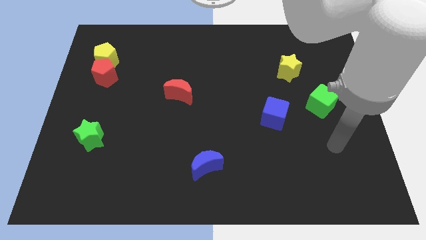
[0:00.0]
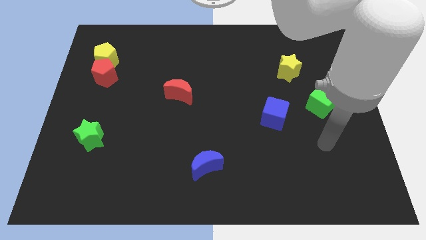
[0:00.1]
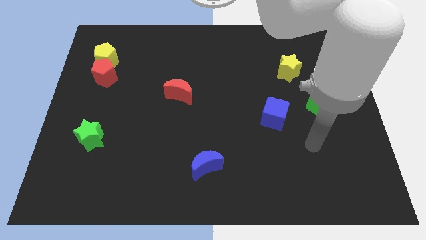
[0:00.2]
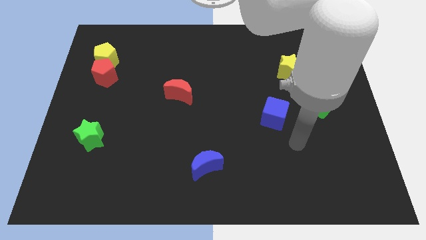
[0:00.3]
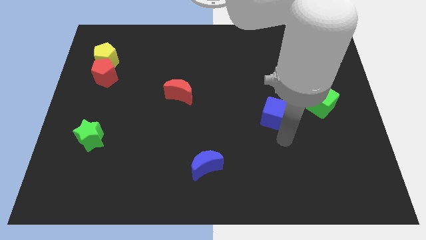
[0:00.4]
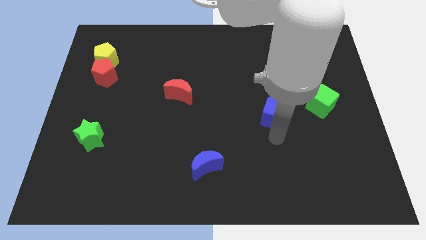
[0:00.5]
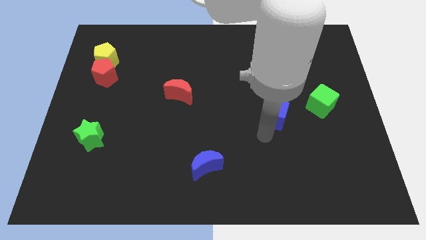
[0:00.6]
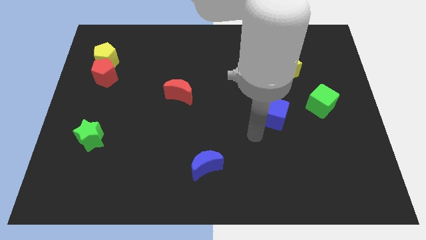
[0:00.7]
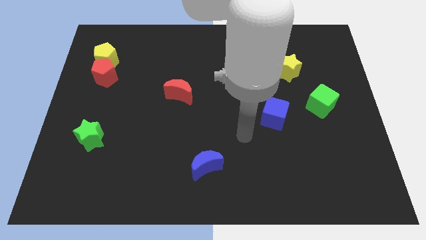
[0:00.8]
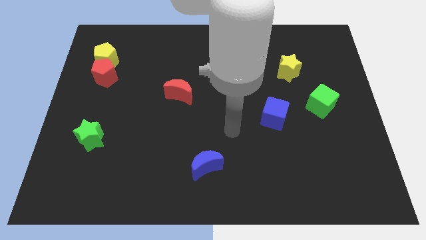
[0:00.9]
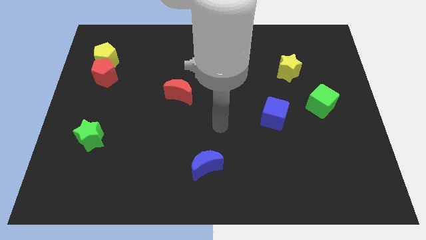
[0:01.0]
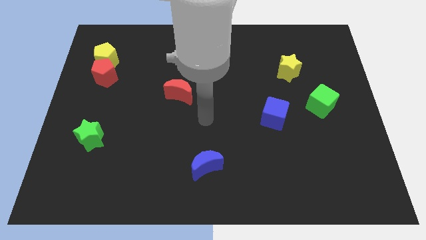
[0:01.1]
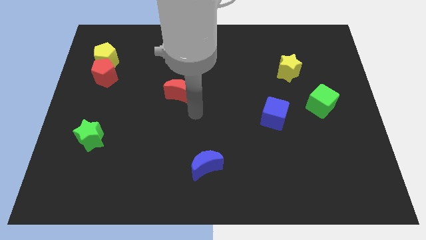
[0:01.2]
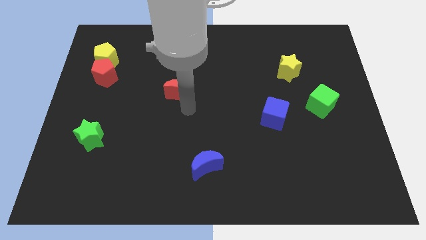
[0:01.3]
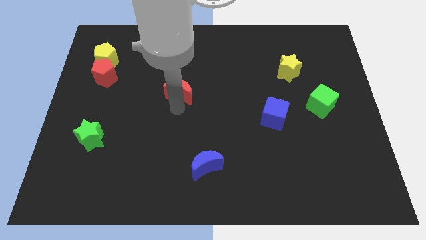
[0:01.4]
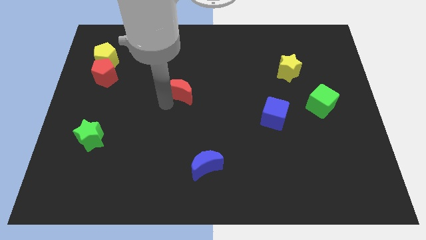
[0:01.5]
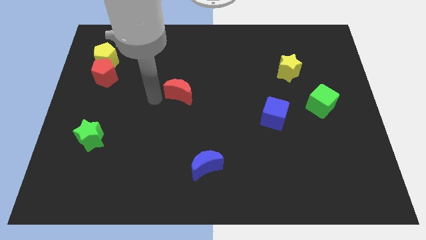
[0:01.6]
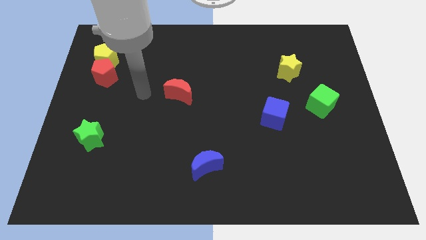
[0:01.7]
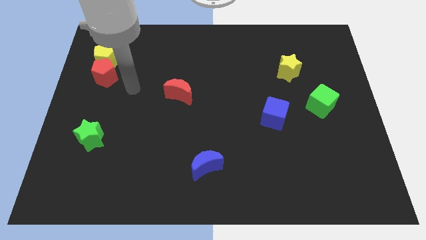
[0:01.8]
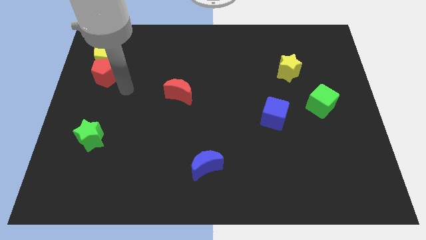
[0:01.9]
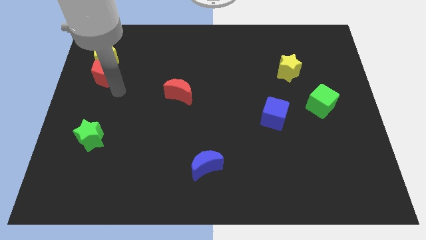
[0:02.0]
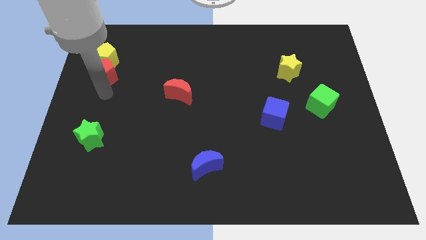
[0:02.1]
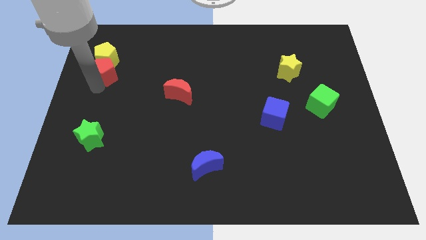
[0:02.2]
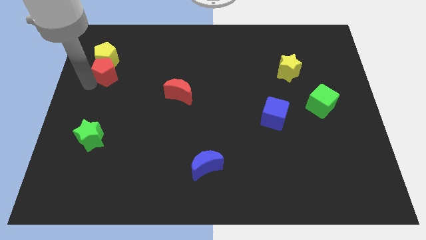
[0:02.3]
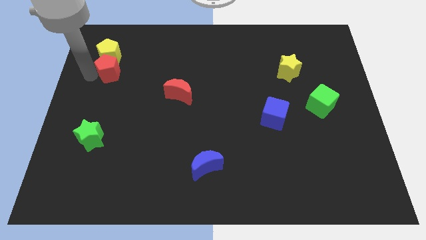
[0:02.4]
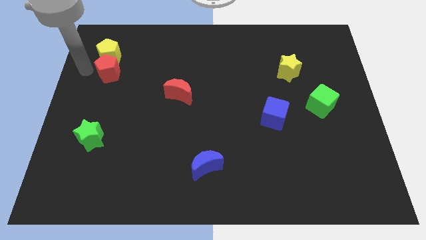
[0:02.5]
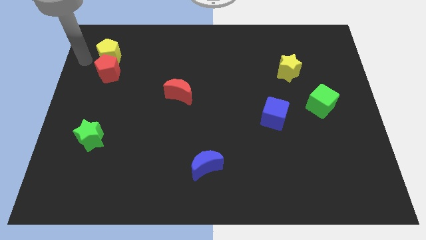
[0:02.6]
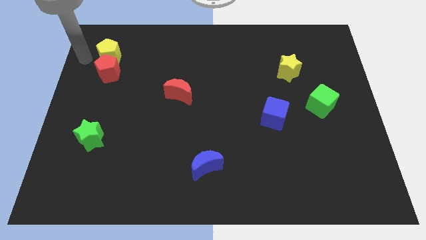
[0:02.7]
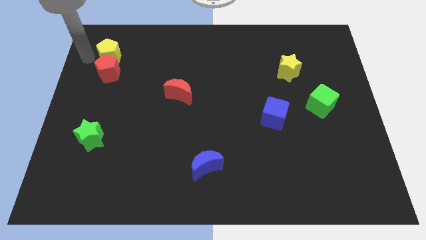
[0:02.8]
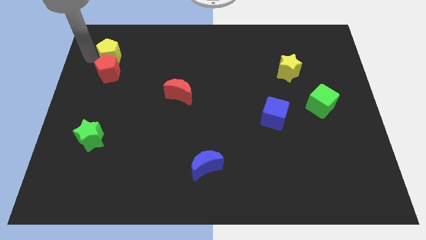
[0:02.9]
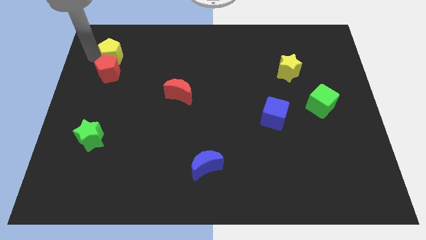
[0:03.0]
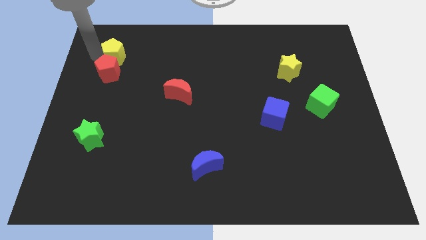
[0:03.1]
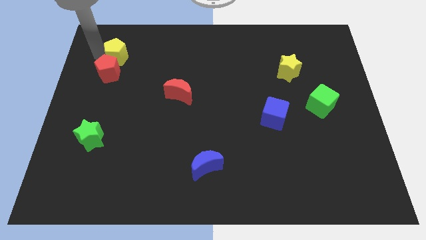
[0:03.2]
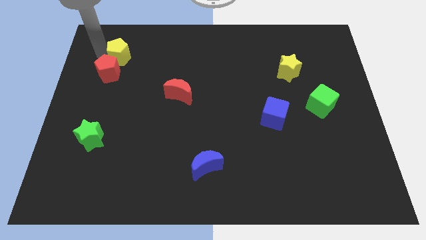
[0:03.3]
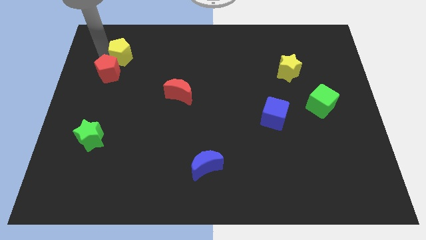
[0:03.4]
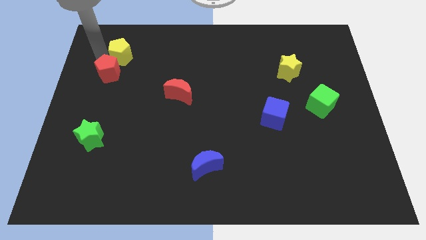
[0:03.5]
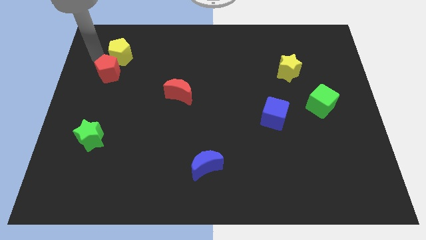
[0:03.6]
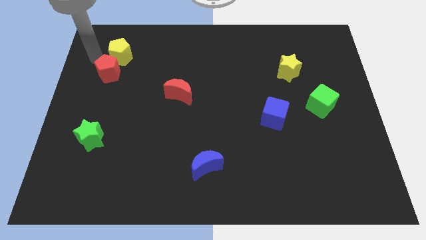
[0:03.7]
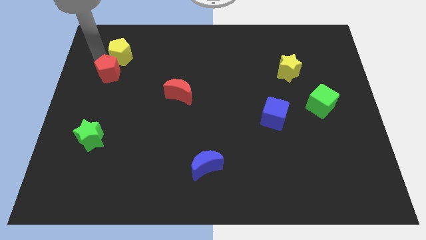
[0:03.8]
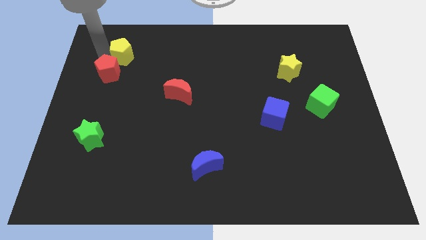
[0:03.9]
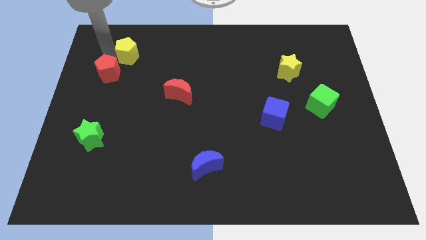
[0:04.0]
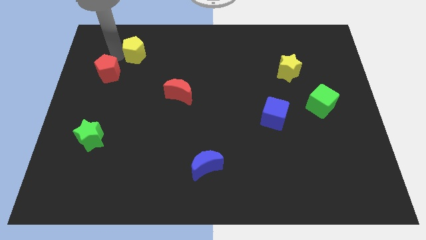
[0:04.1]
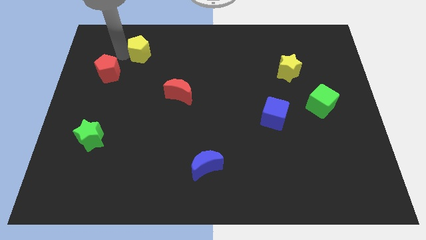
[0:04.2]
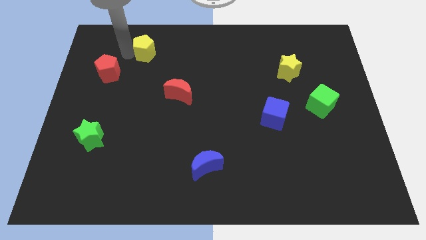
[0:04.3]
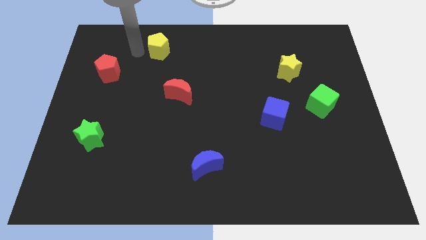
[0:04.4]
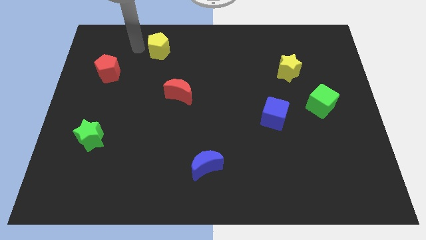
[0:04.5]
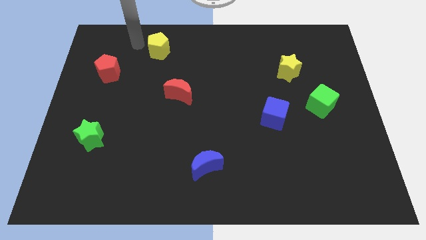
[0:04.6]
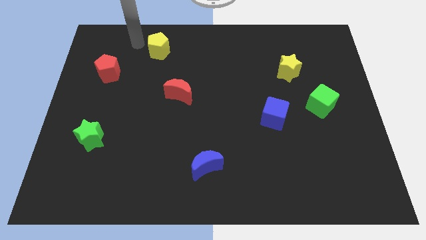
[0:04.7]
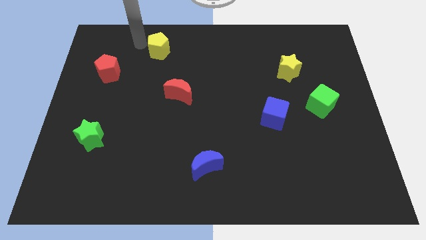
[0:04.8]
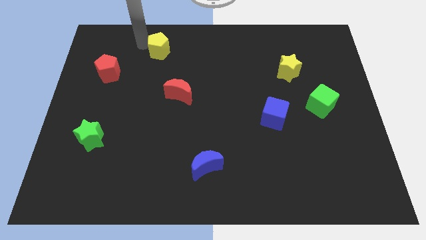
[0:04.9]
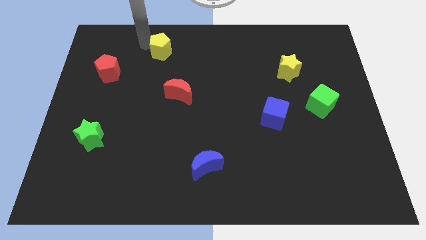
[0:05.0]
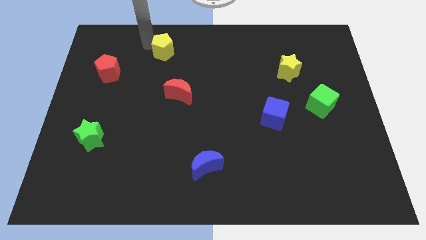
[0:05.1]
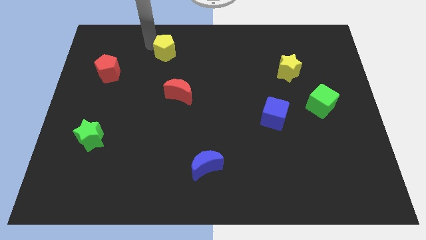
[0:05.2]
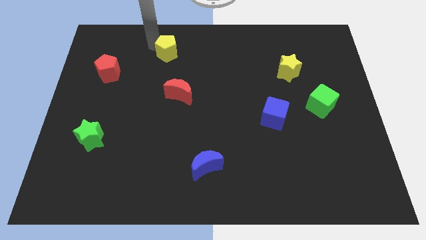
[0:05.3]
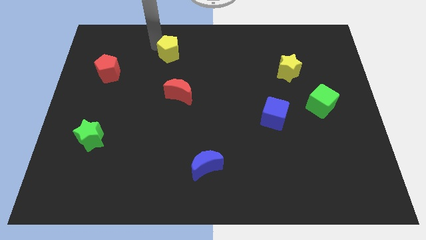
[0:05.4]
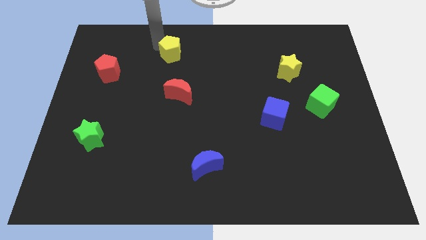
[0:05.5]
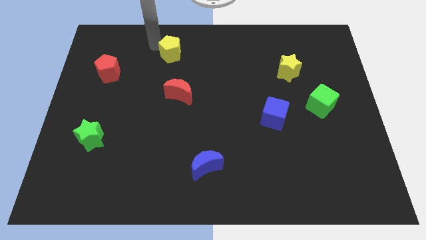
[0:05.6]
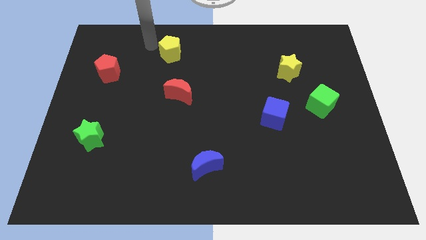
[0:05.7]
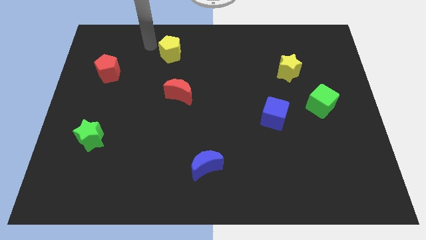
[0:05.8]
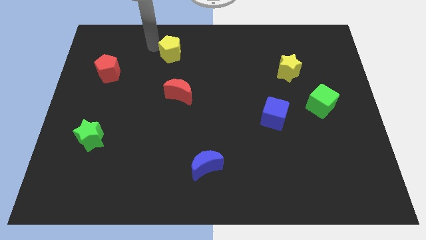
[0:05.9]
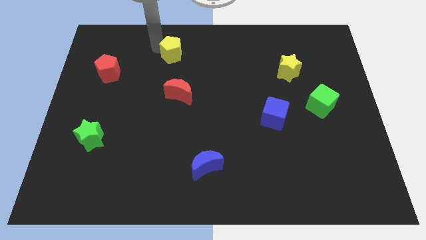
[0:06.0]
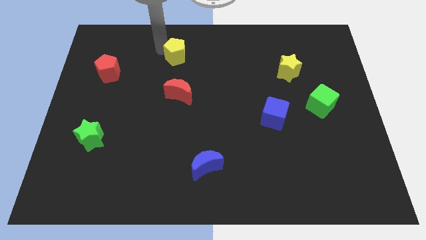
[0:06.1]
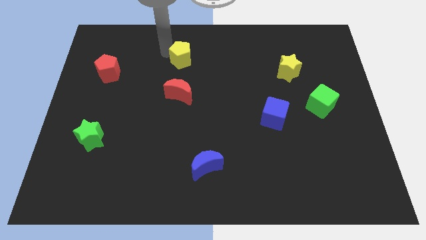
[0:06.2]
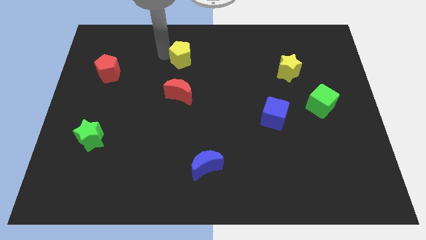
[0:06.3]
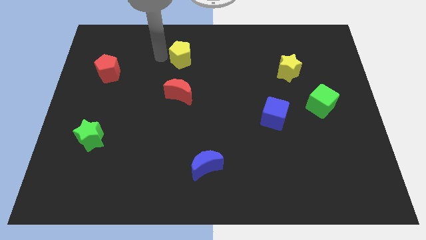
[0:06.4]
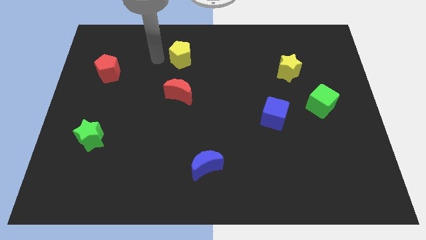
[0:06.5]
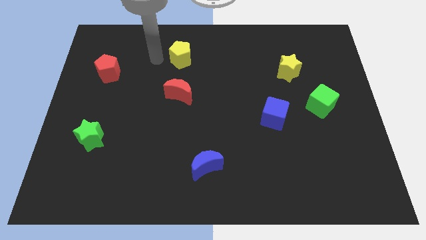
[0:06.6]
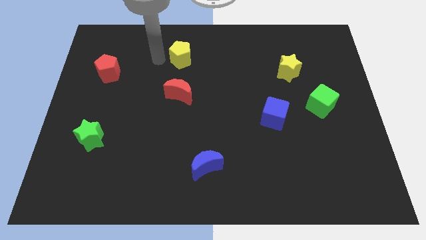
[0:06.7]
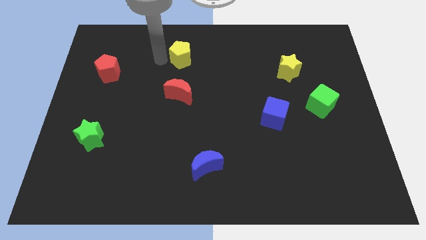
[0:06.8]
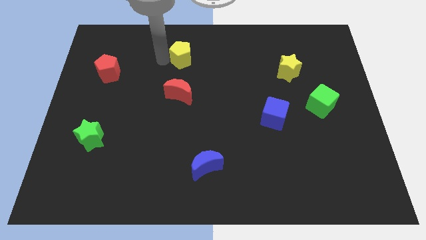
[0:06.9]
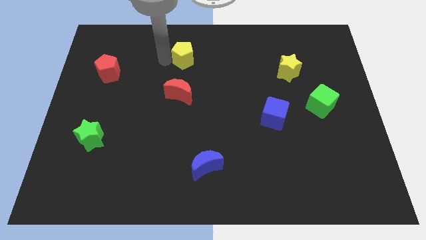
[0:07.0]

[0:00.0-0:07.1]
move the yellow pentagon to the right

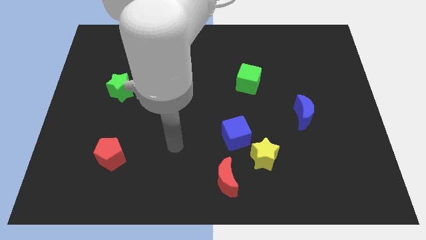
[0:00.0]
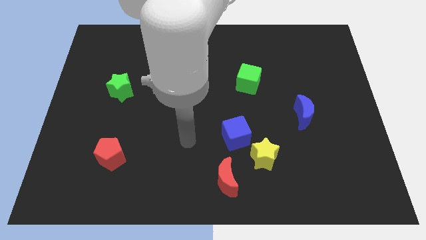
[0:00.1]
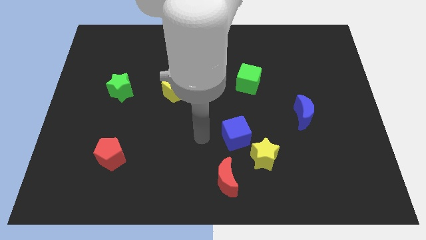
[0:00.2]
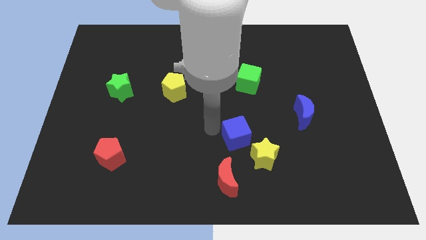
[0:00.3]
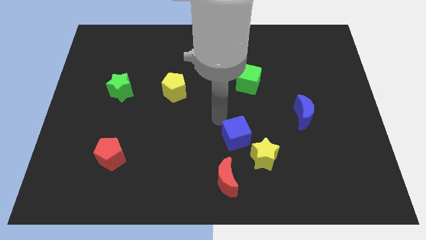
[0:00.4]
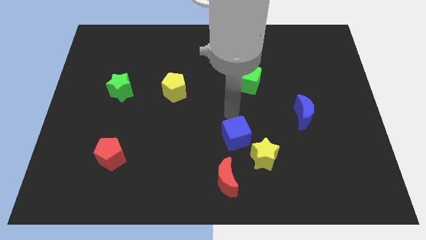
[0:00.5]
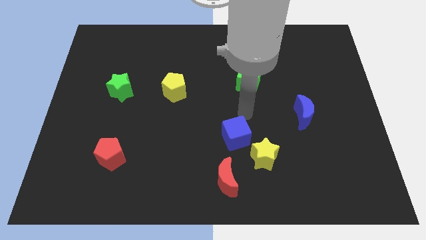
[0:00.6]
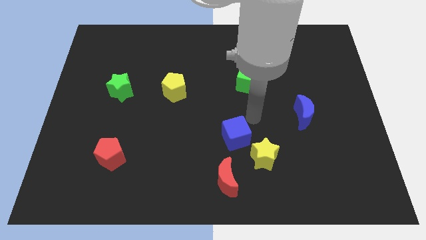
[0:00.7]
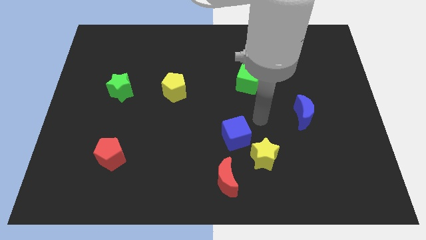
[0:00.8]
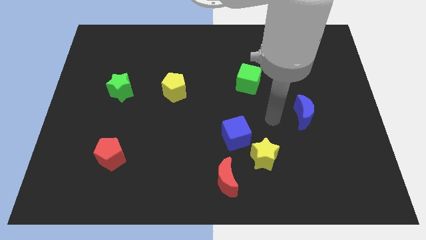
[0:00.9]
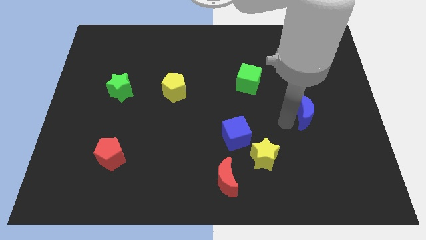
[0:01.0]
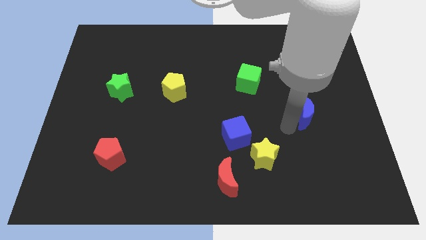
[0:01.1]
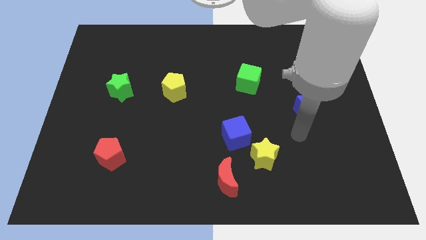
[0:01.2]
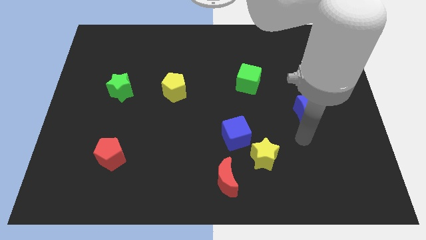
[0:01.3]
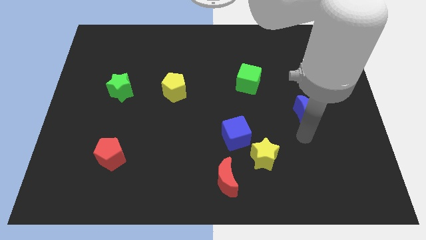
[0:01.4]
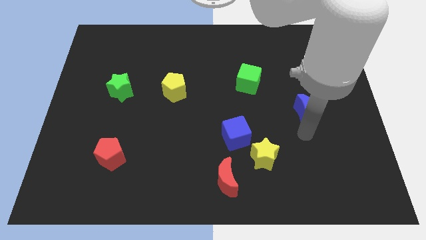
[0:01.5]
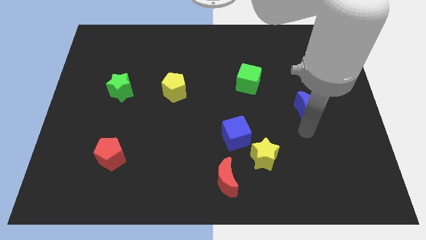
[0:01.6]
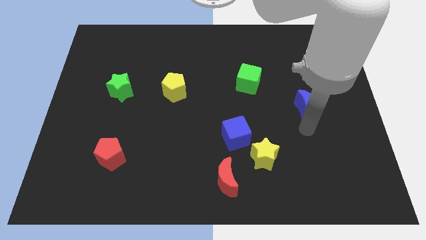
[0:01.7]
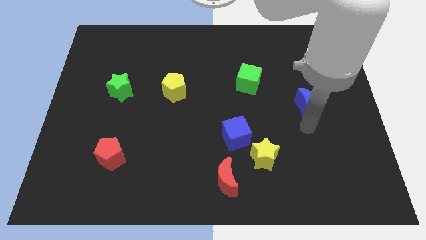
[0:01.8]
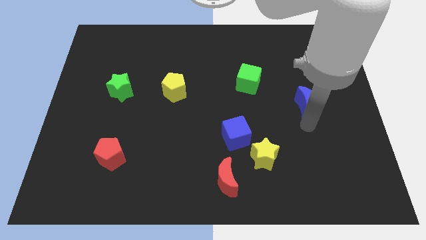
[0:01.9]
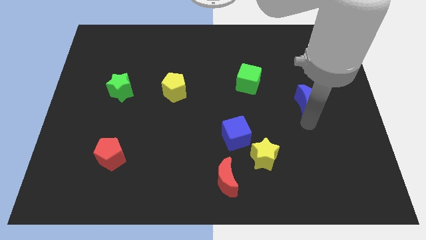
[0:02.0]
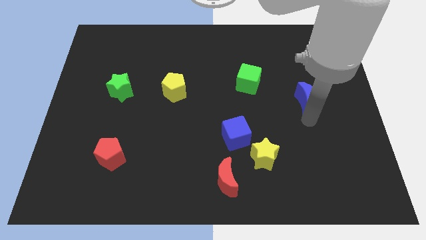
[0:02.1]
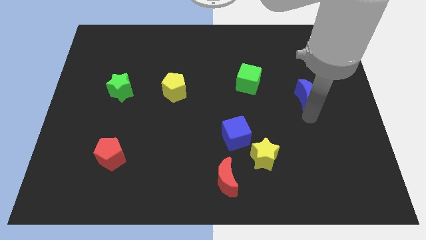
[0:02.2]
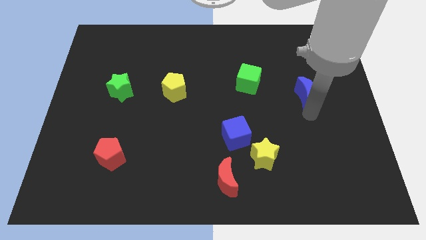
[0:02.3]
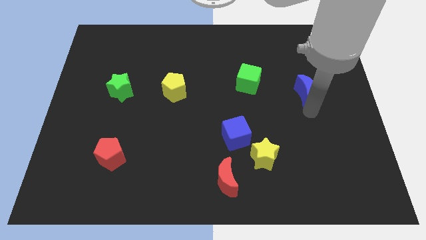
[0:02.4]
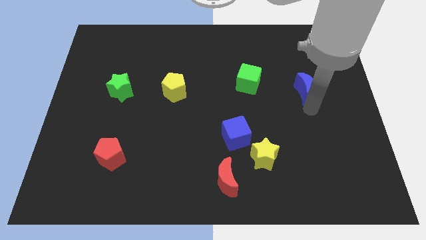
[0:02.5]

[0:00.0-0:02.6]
push the blue moon a little upwards
